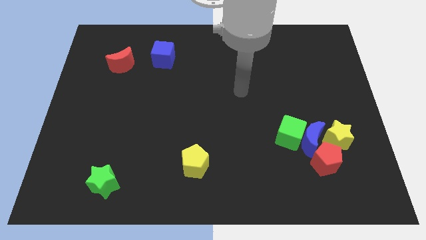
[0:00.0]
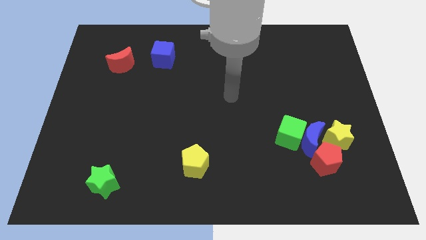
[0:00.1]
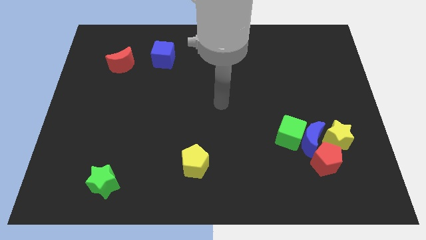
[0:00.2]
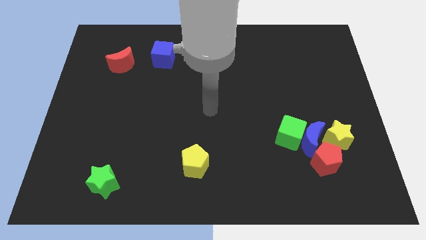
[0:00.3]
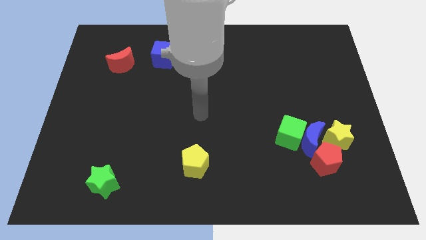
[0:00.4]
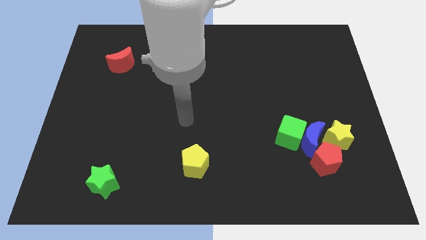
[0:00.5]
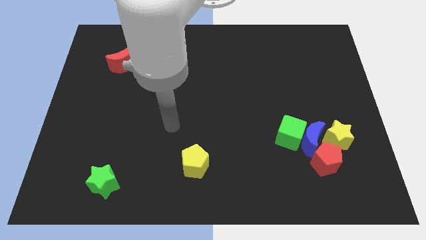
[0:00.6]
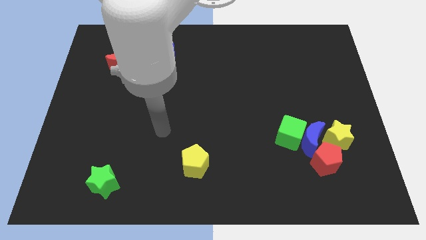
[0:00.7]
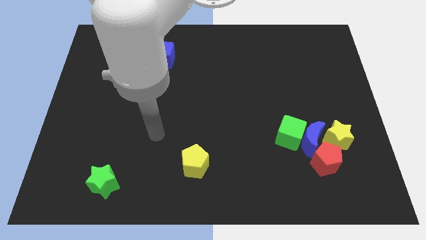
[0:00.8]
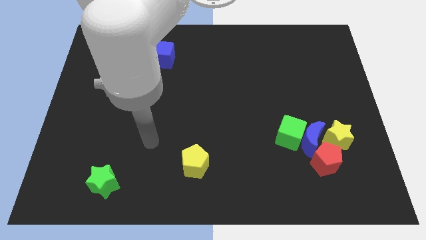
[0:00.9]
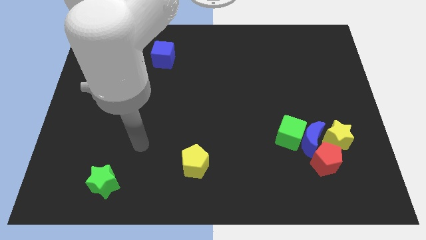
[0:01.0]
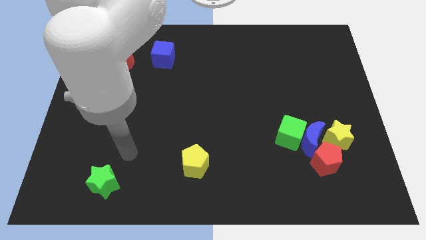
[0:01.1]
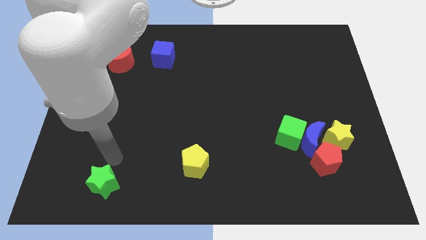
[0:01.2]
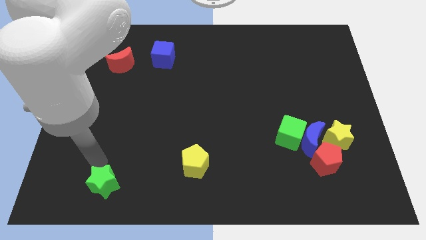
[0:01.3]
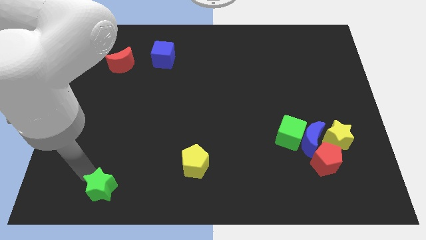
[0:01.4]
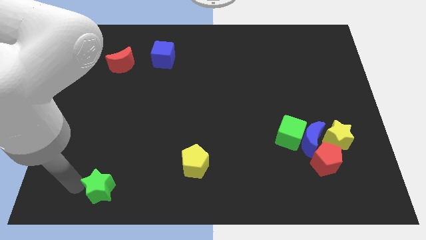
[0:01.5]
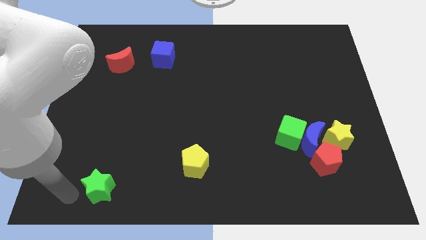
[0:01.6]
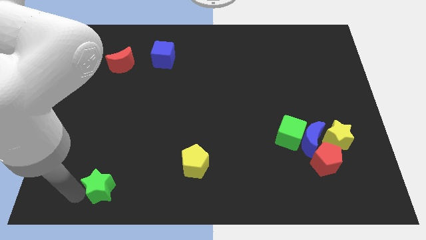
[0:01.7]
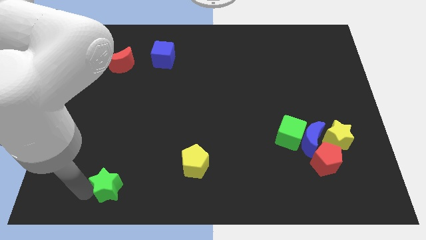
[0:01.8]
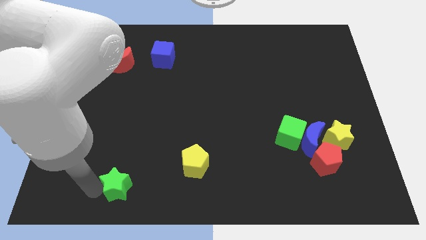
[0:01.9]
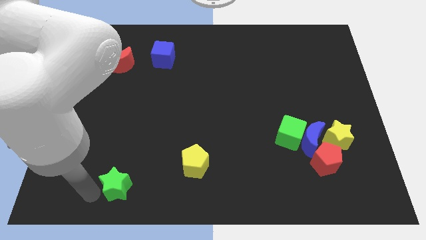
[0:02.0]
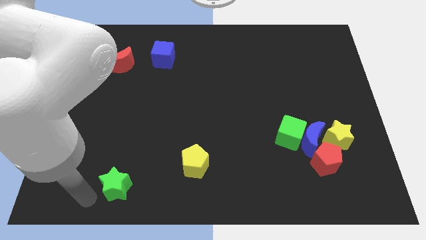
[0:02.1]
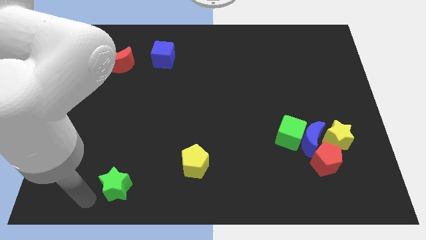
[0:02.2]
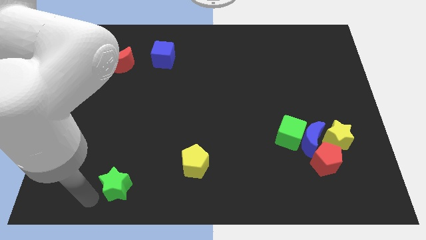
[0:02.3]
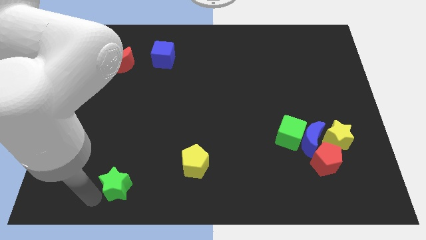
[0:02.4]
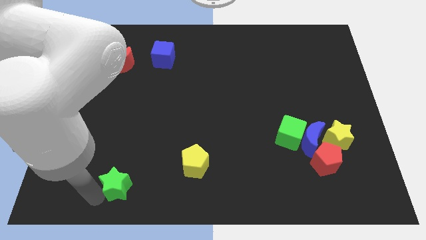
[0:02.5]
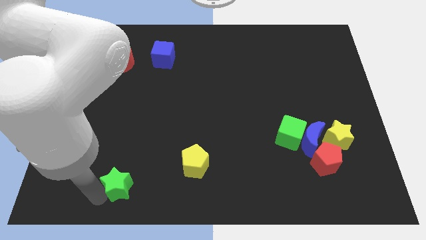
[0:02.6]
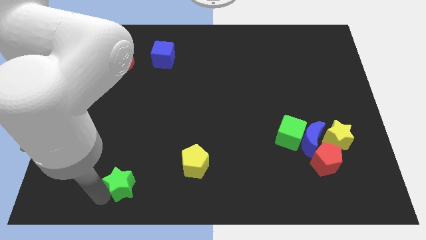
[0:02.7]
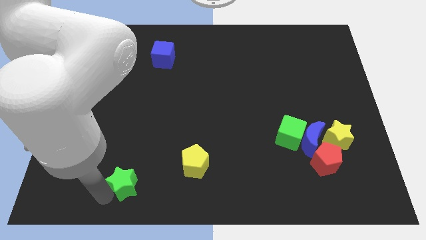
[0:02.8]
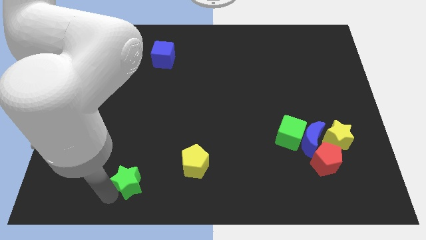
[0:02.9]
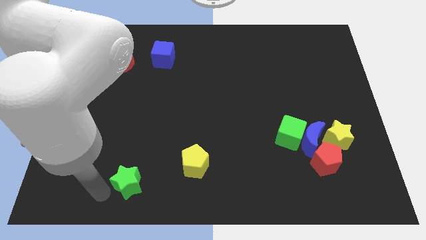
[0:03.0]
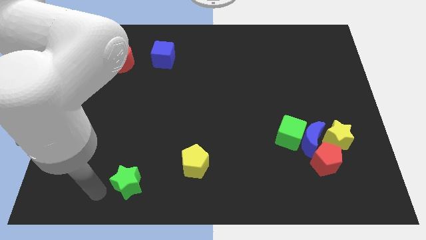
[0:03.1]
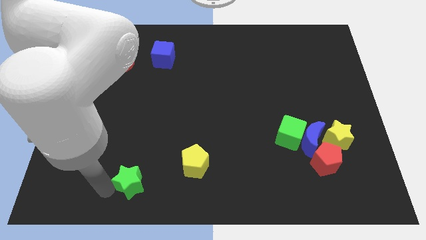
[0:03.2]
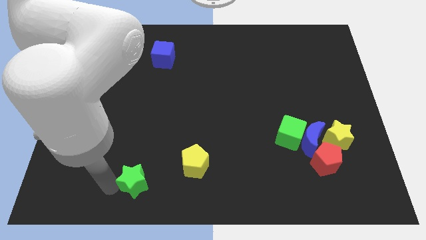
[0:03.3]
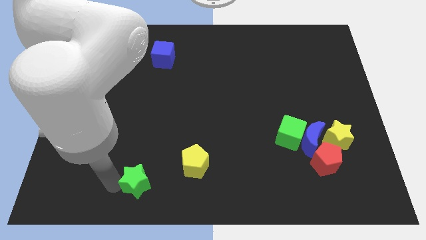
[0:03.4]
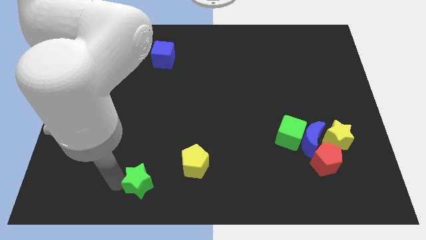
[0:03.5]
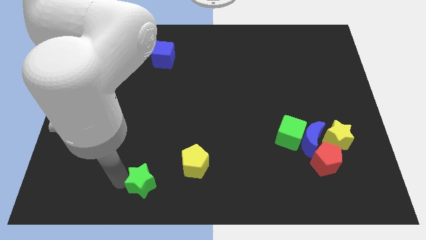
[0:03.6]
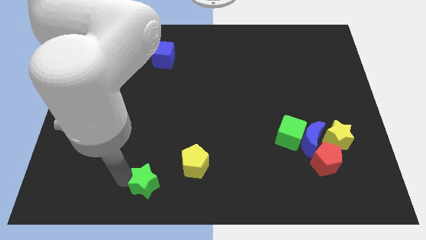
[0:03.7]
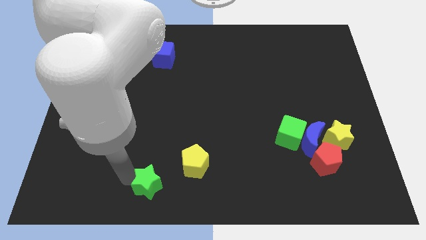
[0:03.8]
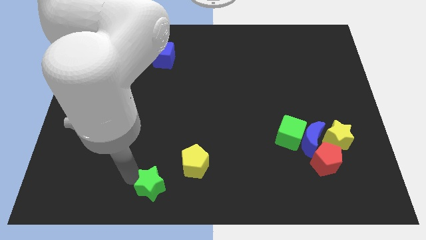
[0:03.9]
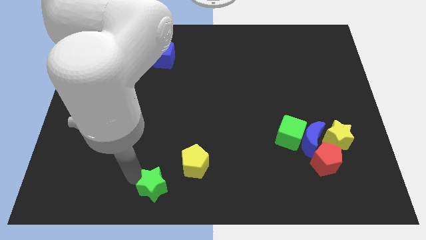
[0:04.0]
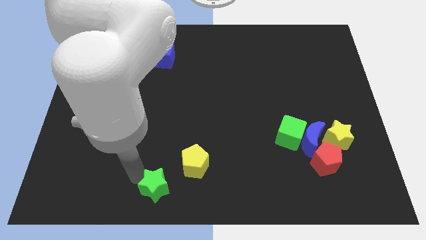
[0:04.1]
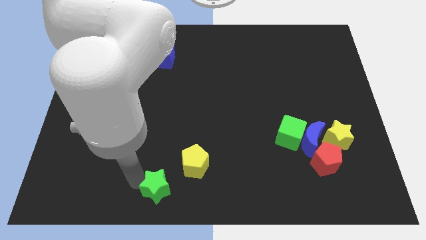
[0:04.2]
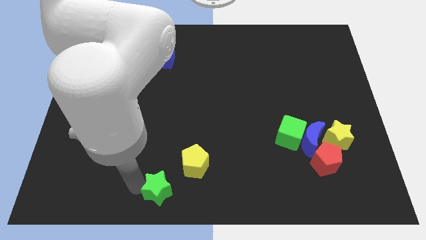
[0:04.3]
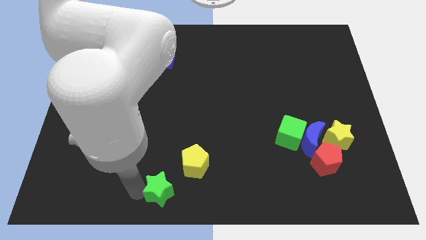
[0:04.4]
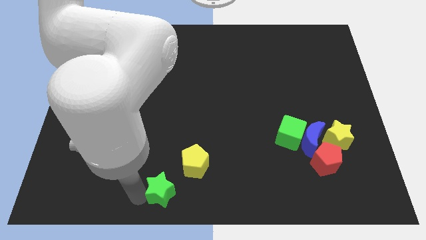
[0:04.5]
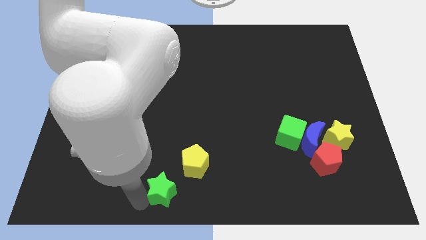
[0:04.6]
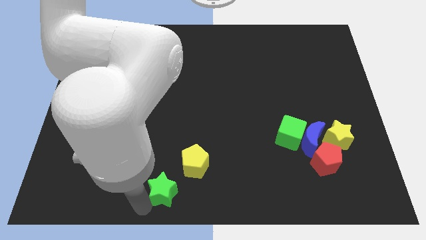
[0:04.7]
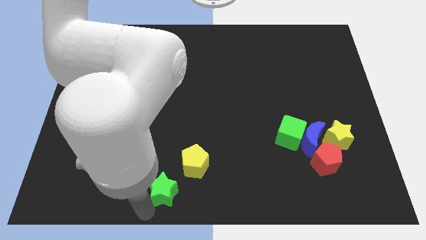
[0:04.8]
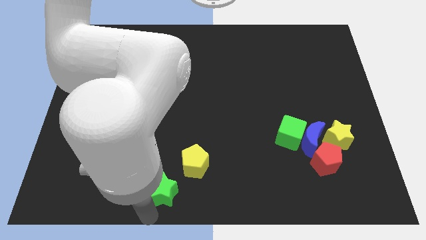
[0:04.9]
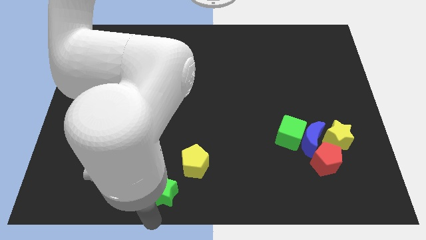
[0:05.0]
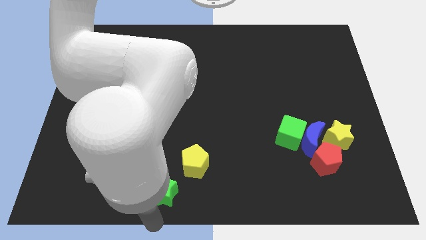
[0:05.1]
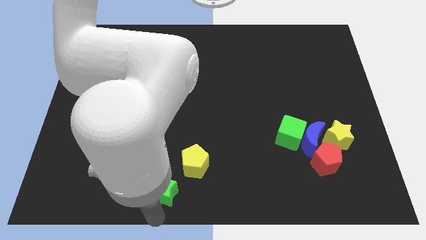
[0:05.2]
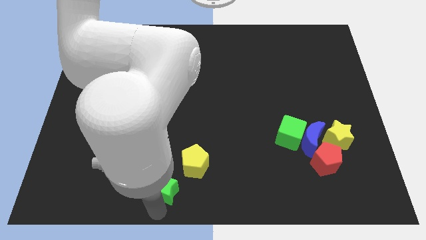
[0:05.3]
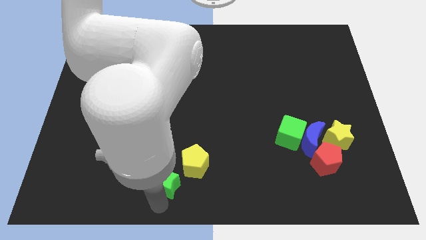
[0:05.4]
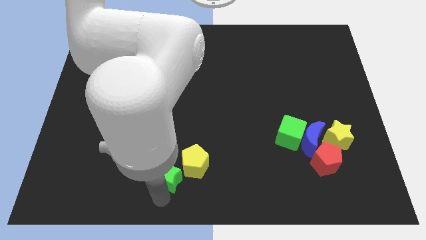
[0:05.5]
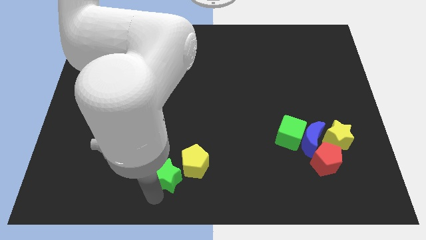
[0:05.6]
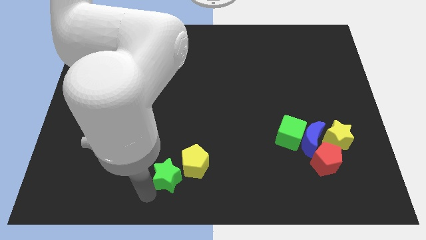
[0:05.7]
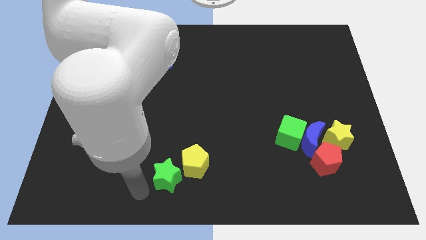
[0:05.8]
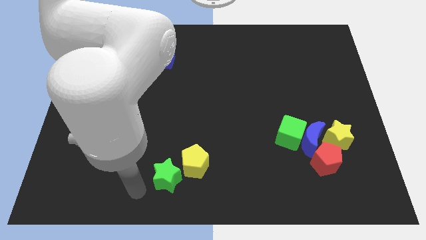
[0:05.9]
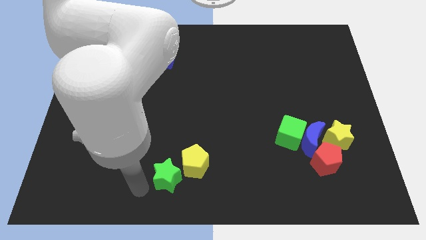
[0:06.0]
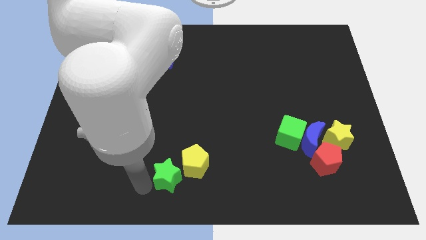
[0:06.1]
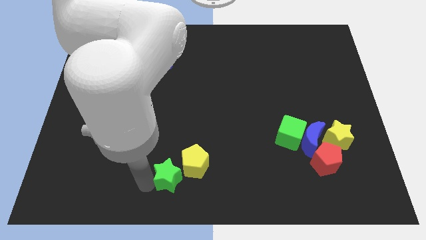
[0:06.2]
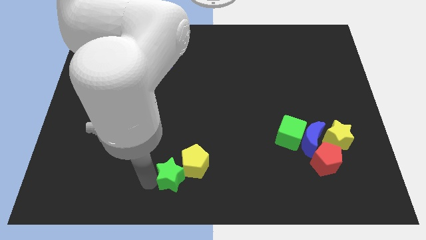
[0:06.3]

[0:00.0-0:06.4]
push the green star next to the yellow pentagon
